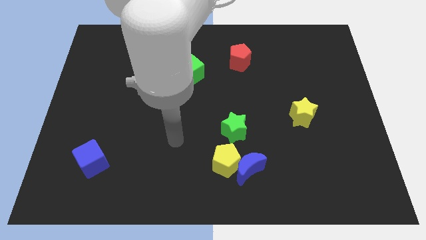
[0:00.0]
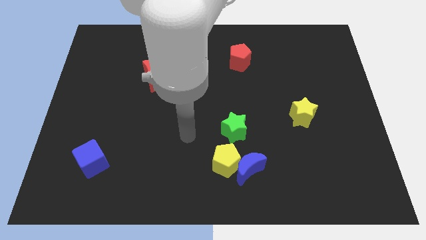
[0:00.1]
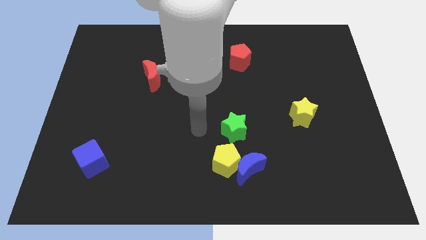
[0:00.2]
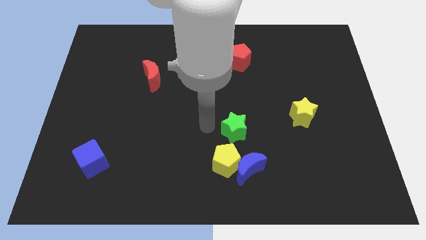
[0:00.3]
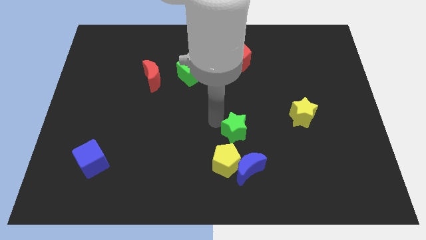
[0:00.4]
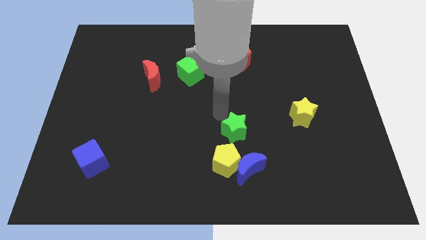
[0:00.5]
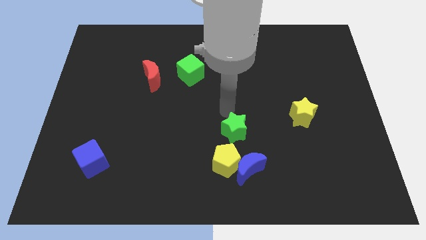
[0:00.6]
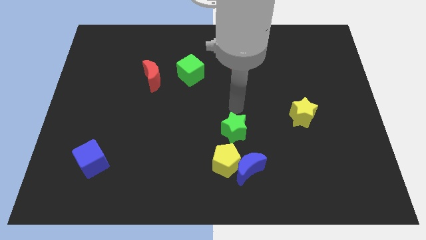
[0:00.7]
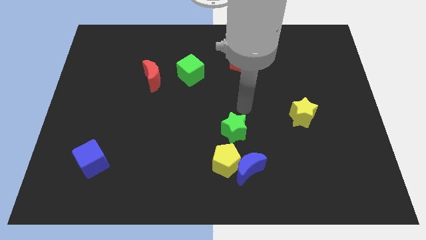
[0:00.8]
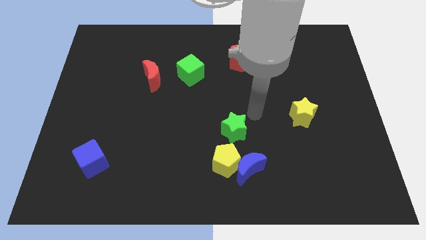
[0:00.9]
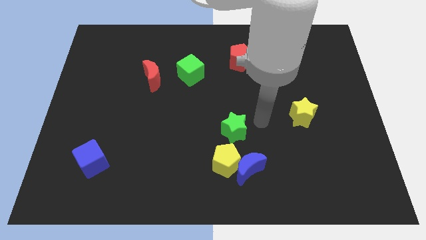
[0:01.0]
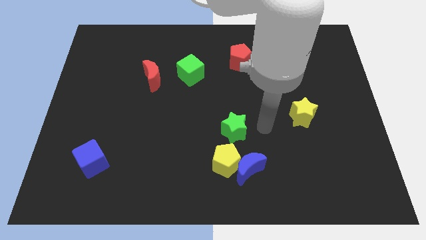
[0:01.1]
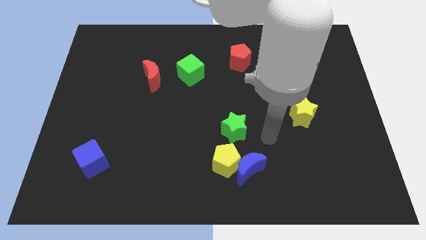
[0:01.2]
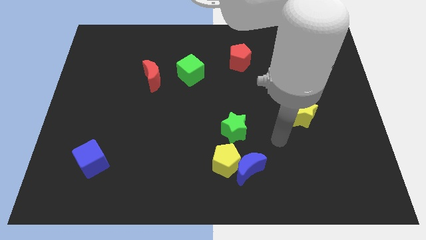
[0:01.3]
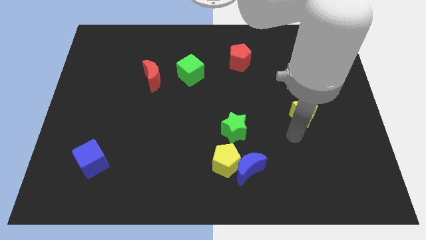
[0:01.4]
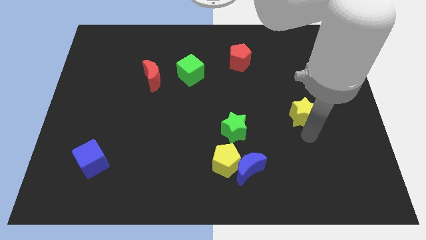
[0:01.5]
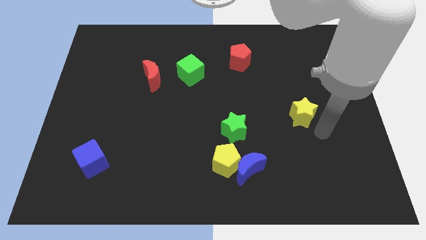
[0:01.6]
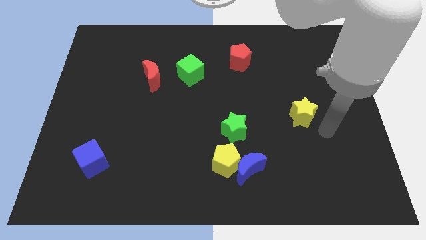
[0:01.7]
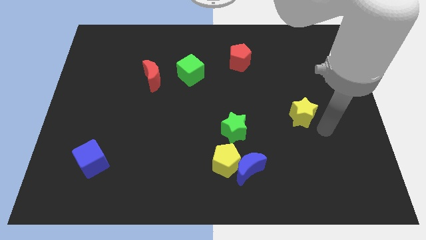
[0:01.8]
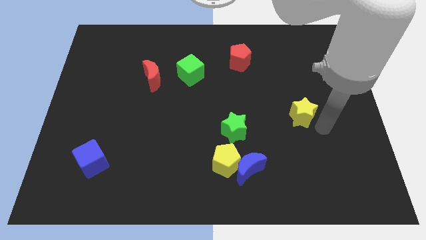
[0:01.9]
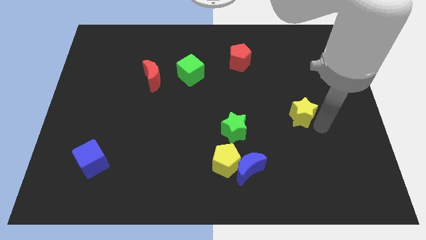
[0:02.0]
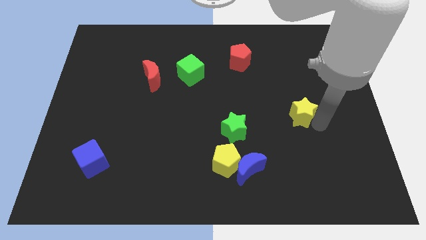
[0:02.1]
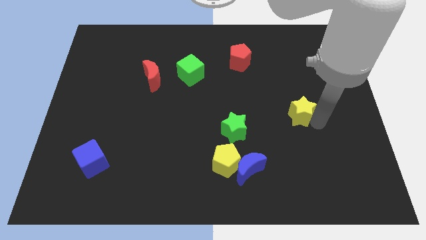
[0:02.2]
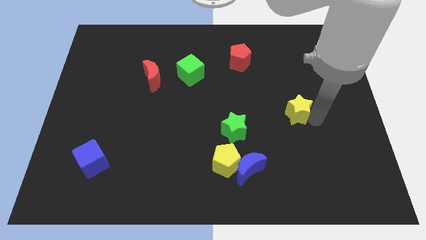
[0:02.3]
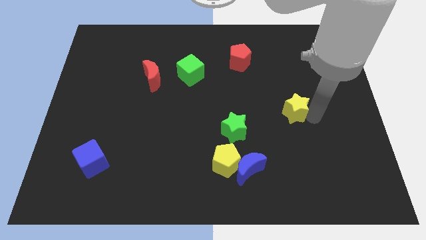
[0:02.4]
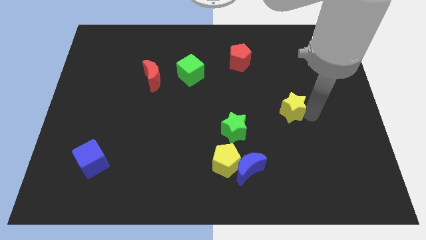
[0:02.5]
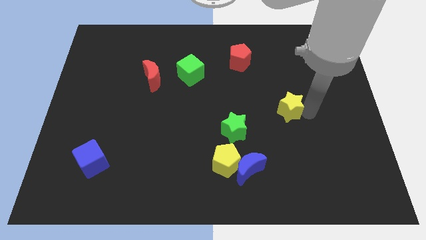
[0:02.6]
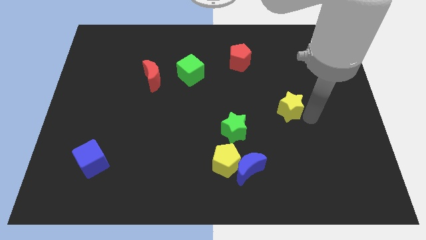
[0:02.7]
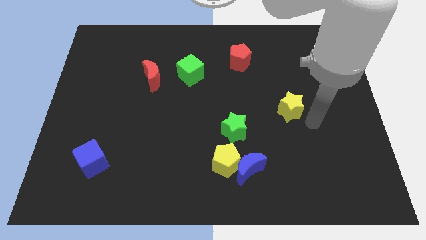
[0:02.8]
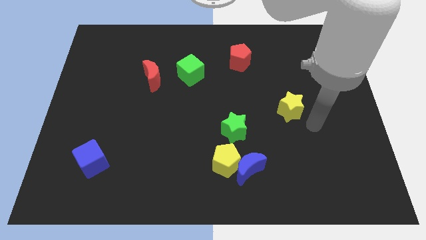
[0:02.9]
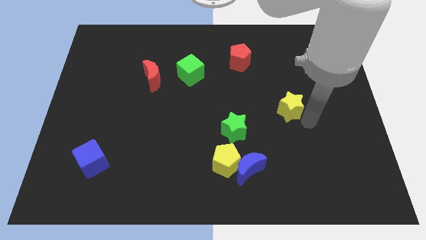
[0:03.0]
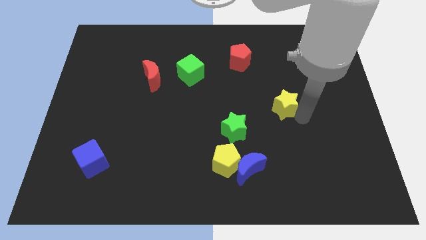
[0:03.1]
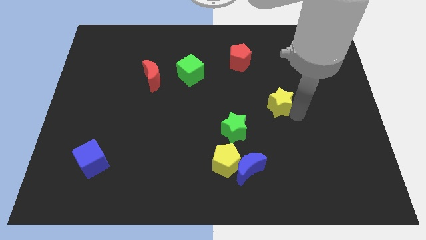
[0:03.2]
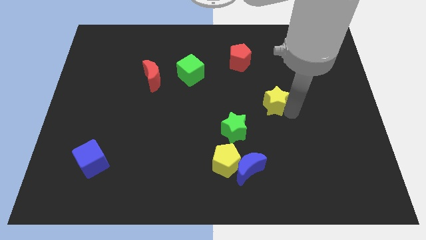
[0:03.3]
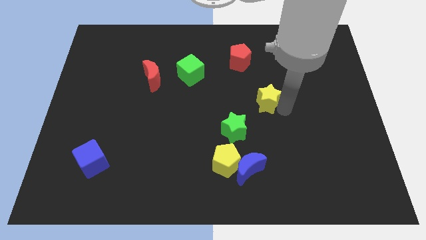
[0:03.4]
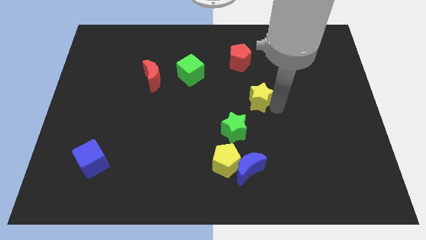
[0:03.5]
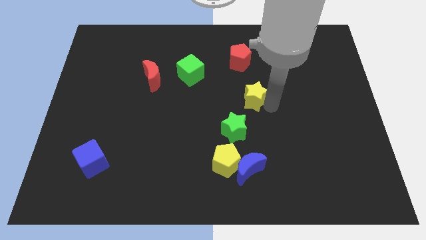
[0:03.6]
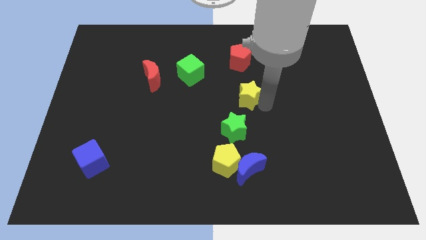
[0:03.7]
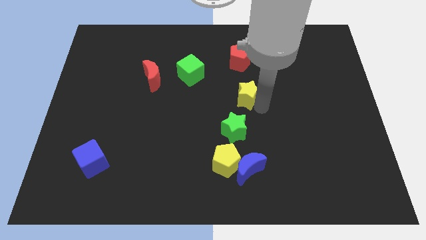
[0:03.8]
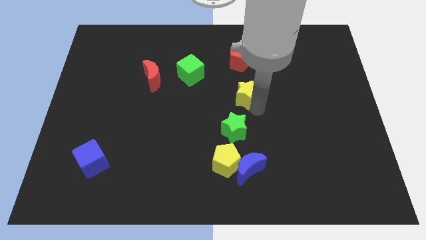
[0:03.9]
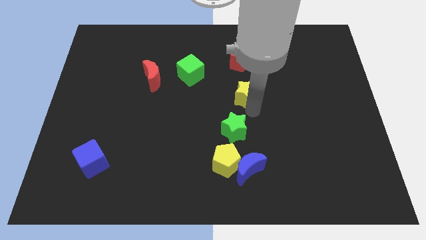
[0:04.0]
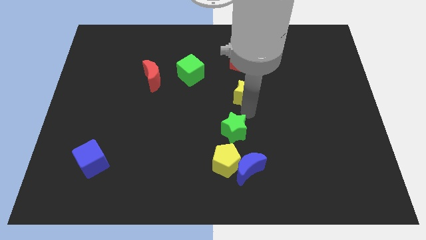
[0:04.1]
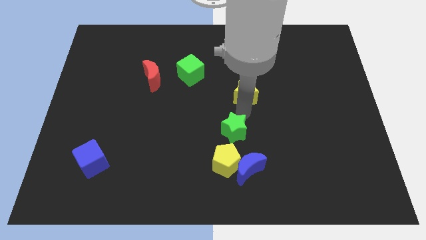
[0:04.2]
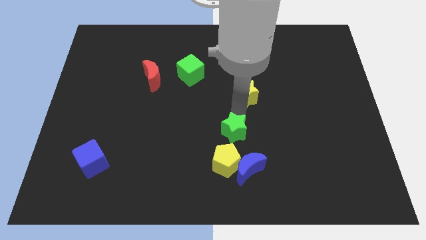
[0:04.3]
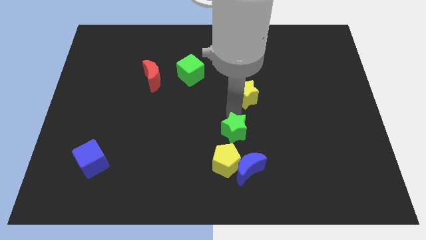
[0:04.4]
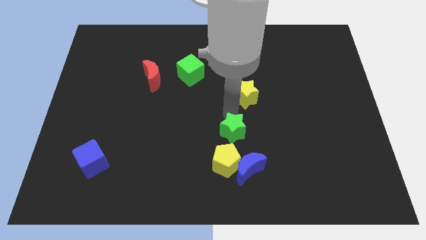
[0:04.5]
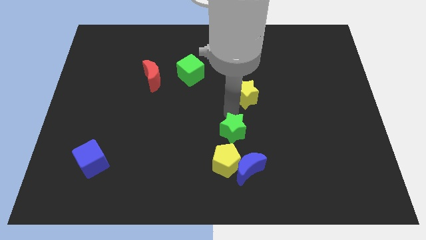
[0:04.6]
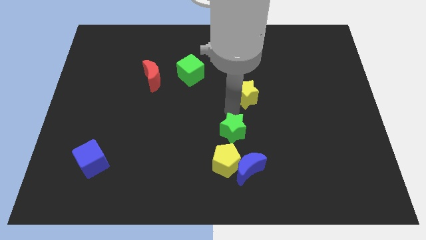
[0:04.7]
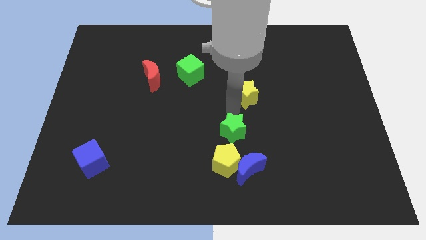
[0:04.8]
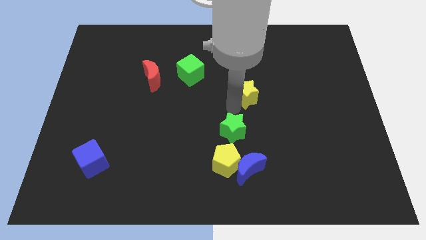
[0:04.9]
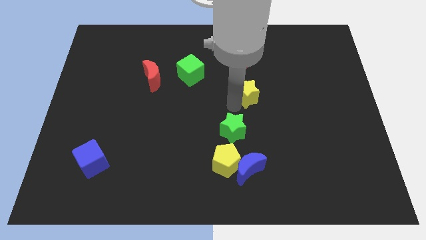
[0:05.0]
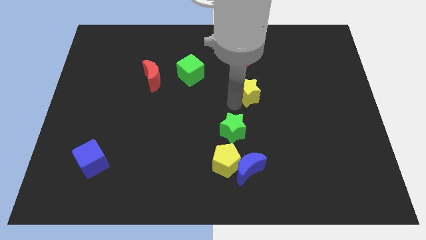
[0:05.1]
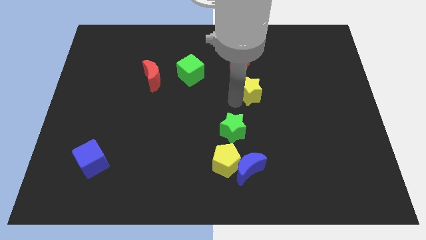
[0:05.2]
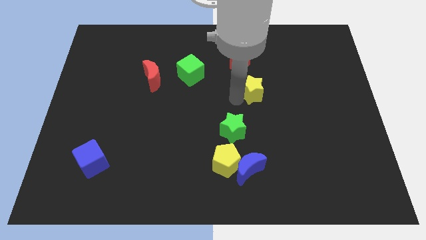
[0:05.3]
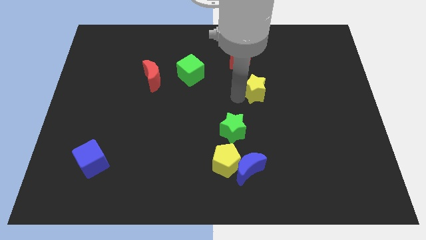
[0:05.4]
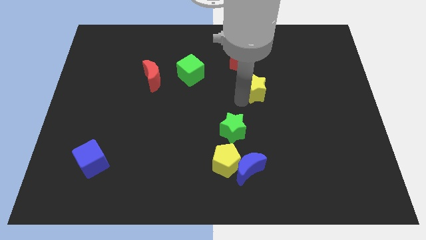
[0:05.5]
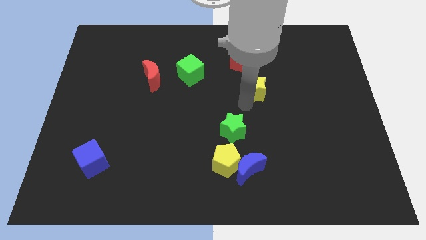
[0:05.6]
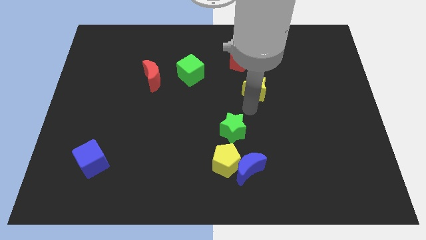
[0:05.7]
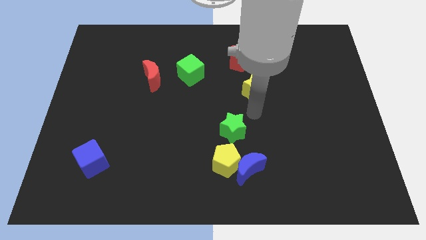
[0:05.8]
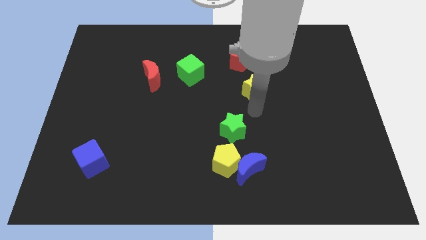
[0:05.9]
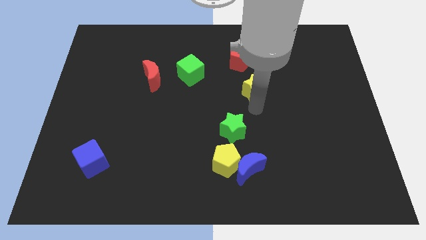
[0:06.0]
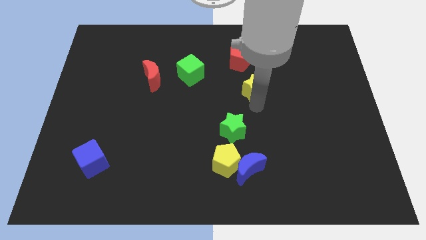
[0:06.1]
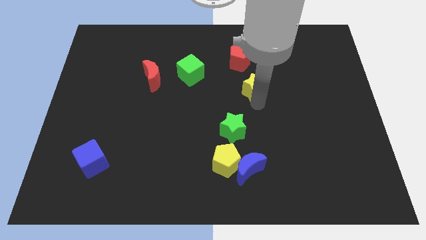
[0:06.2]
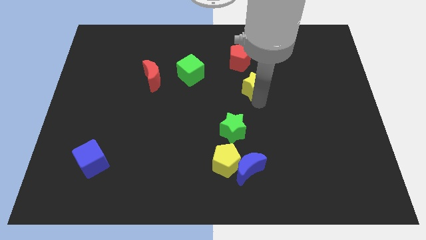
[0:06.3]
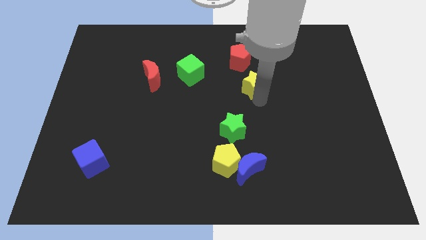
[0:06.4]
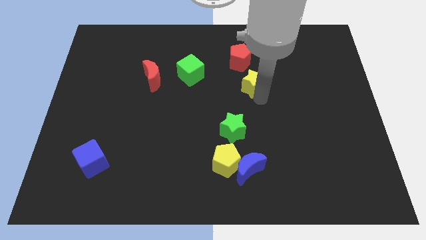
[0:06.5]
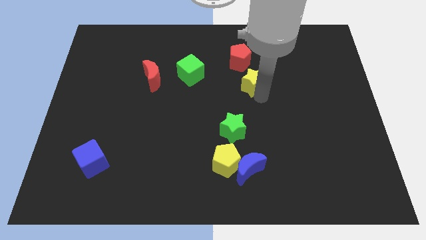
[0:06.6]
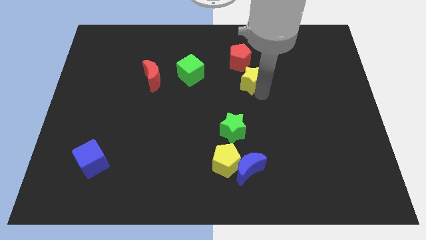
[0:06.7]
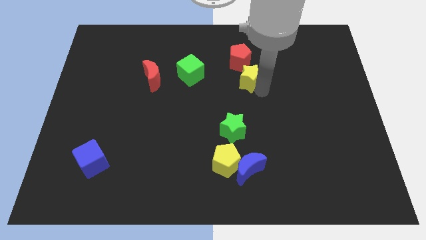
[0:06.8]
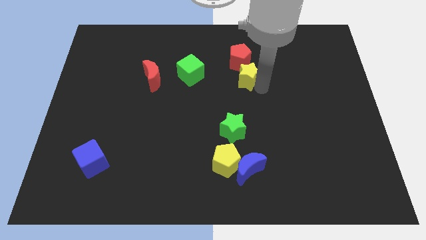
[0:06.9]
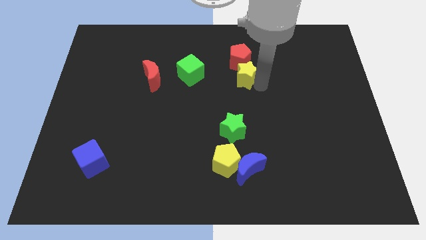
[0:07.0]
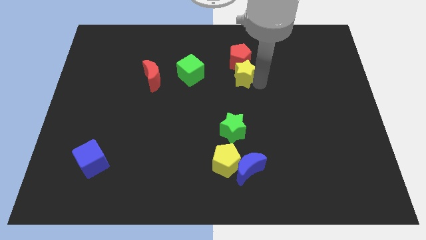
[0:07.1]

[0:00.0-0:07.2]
push the yellow star to the red pentagon
